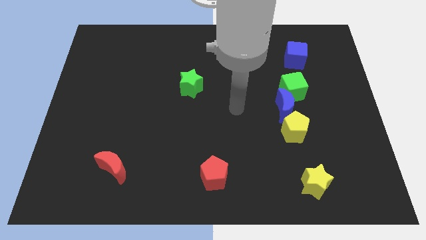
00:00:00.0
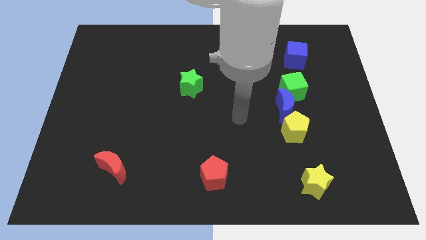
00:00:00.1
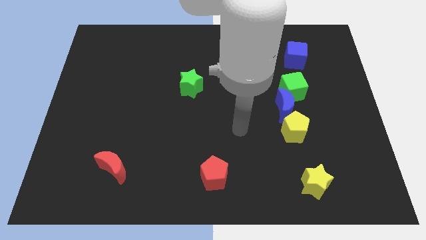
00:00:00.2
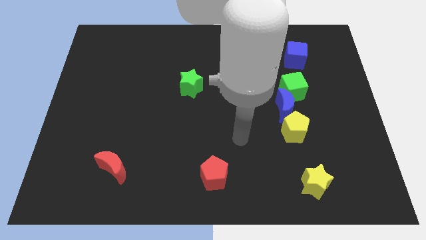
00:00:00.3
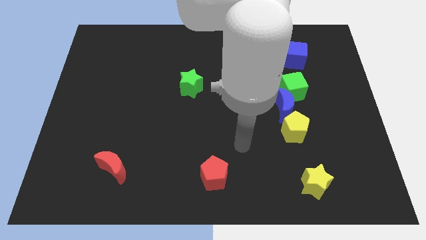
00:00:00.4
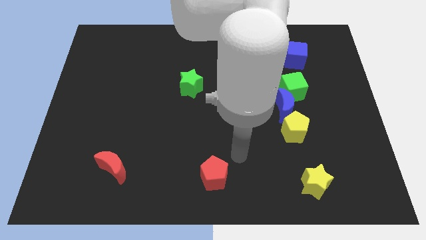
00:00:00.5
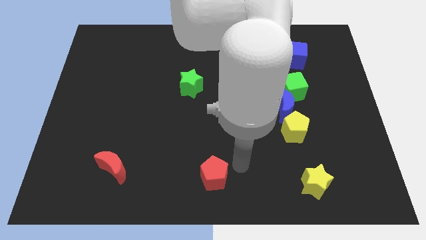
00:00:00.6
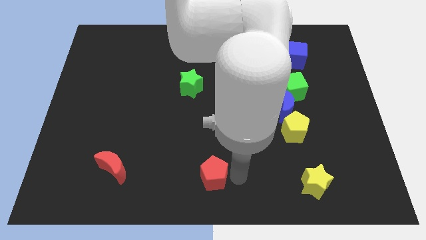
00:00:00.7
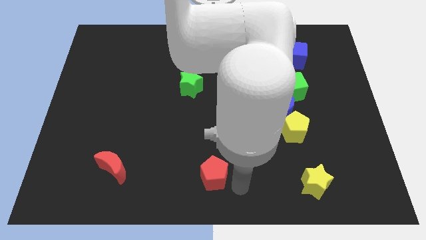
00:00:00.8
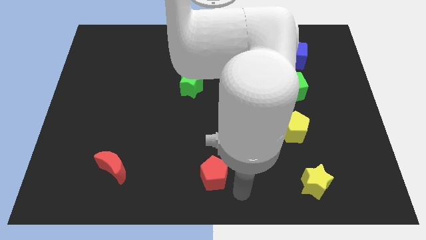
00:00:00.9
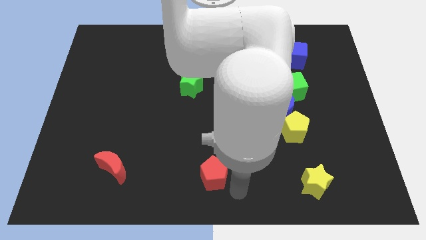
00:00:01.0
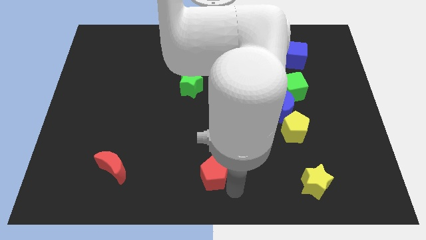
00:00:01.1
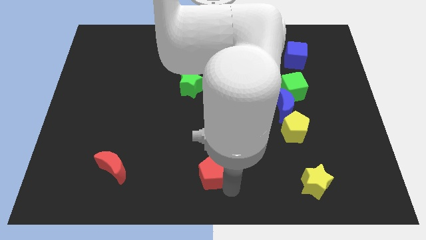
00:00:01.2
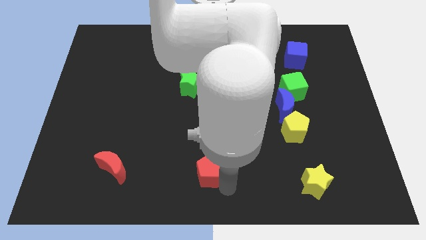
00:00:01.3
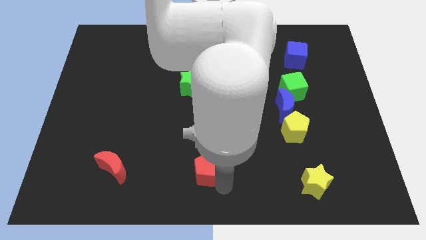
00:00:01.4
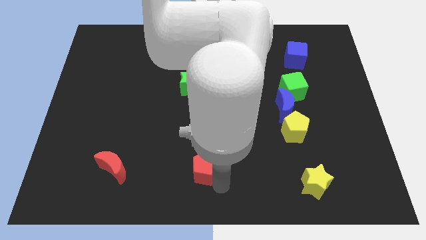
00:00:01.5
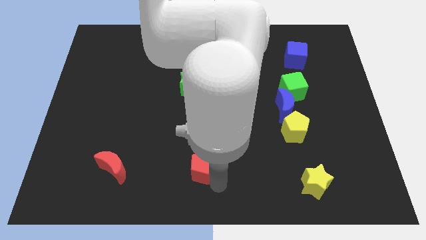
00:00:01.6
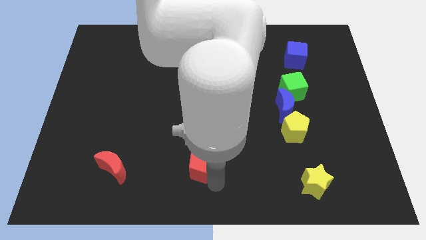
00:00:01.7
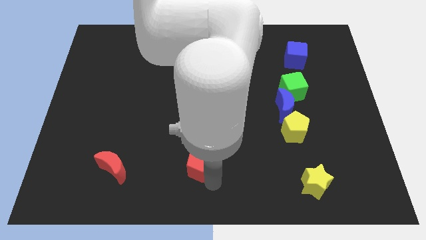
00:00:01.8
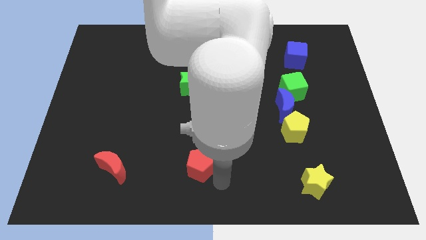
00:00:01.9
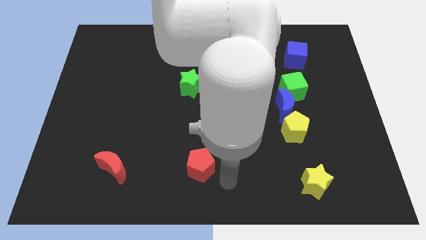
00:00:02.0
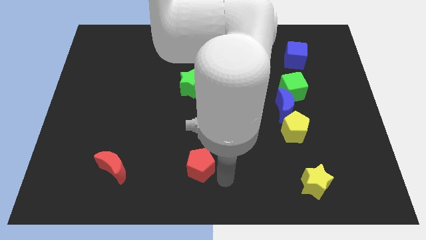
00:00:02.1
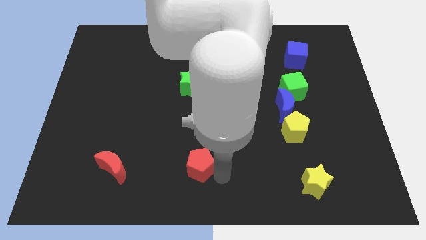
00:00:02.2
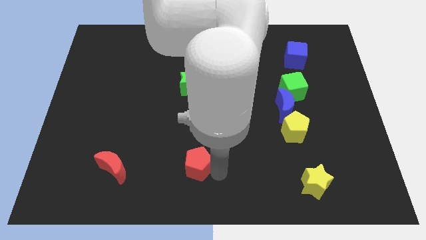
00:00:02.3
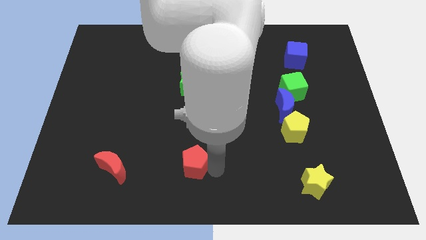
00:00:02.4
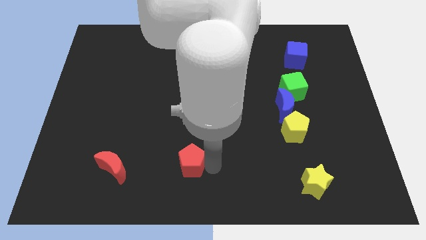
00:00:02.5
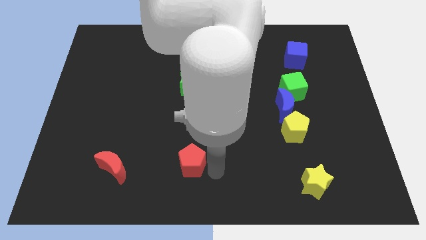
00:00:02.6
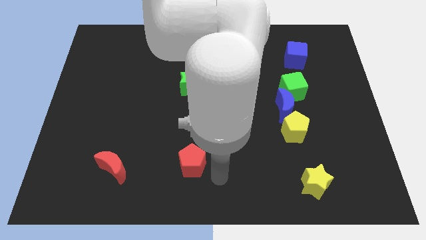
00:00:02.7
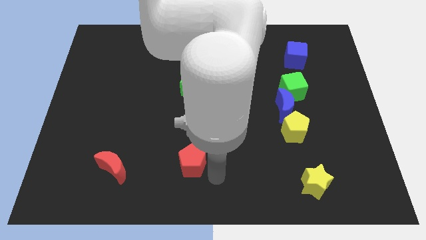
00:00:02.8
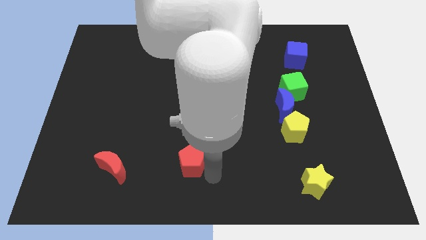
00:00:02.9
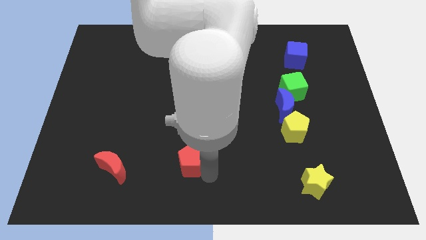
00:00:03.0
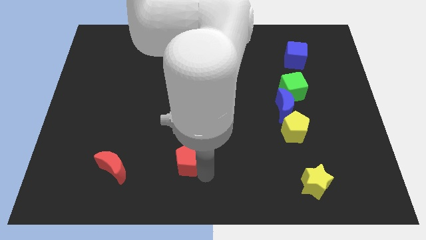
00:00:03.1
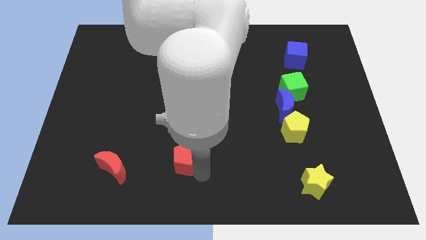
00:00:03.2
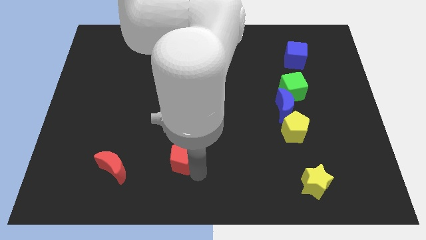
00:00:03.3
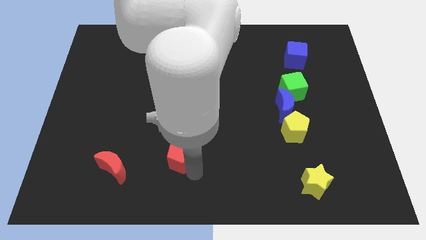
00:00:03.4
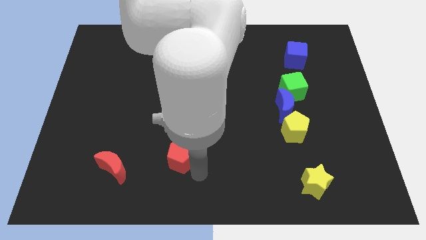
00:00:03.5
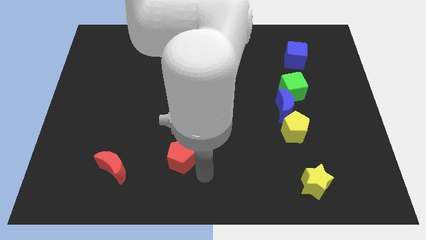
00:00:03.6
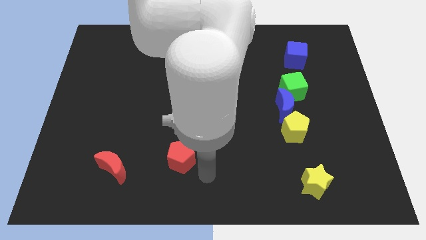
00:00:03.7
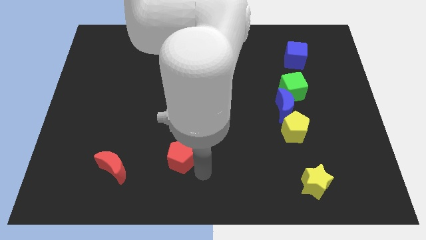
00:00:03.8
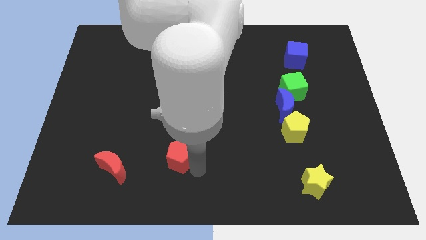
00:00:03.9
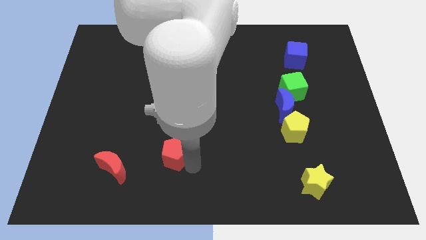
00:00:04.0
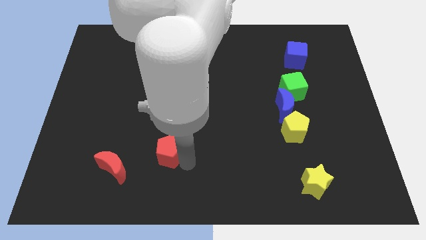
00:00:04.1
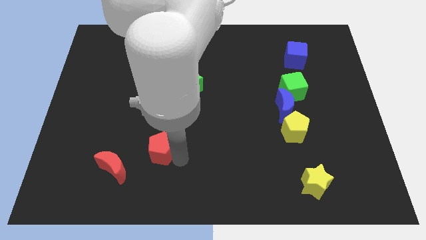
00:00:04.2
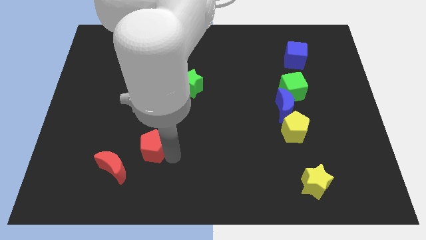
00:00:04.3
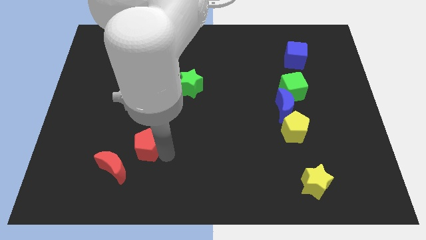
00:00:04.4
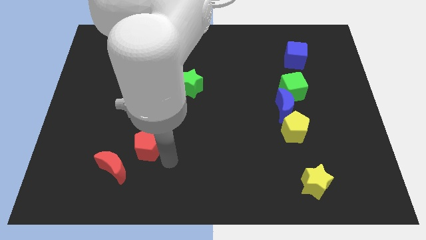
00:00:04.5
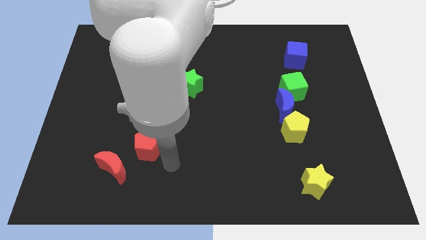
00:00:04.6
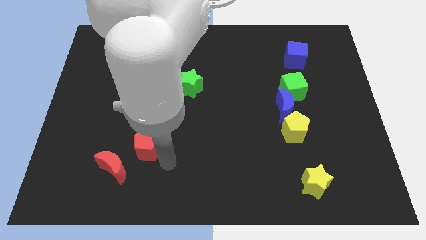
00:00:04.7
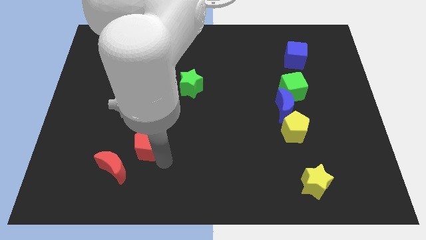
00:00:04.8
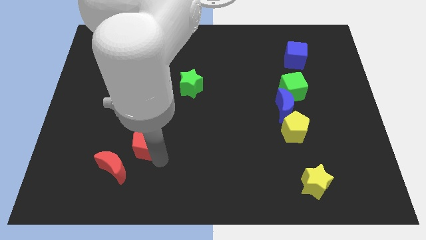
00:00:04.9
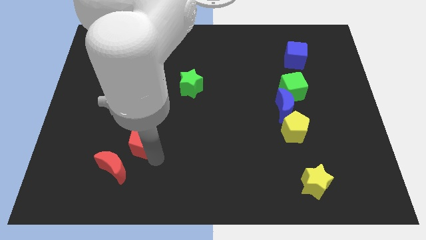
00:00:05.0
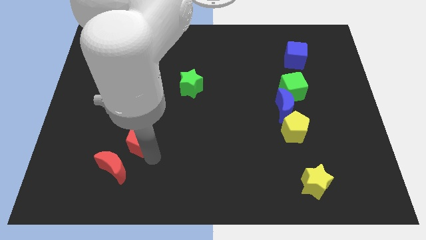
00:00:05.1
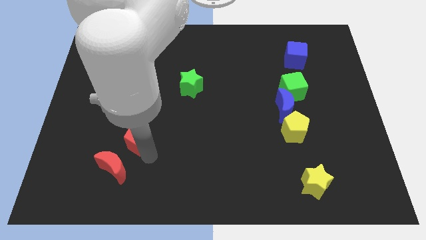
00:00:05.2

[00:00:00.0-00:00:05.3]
put the red pentagon to the top of the red moon

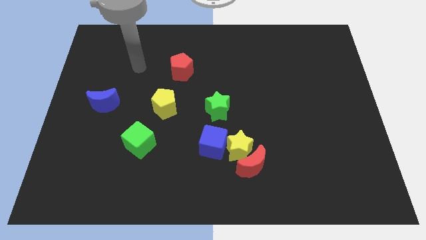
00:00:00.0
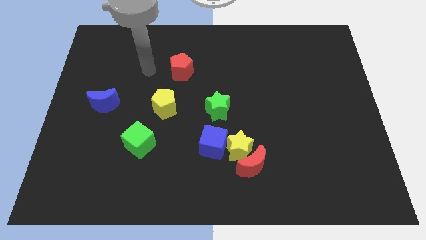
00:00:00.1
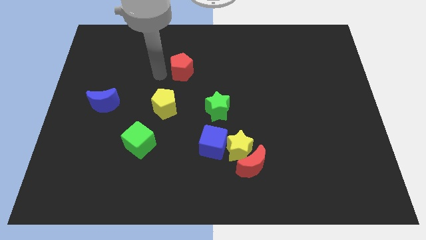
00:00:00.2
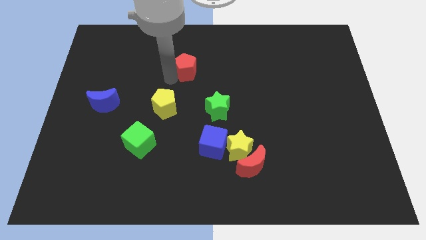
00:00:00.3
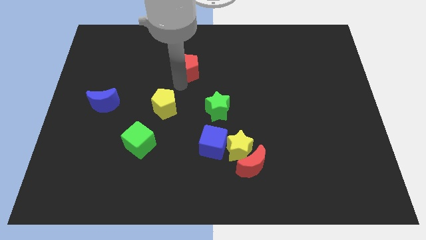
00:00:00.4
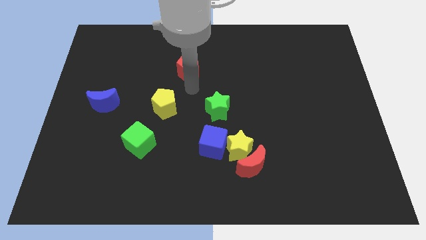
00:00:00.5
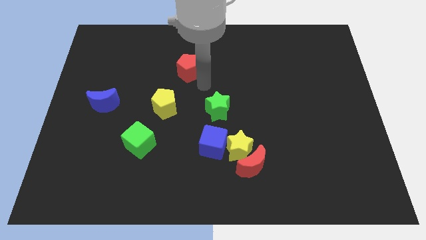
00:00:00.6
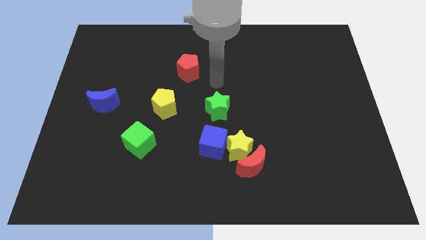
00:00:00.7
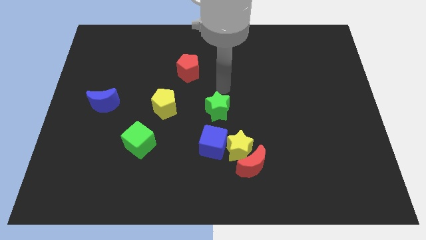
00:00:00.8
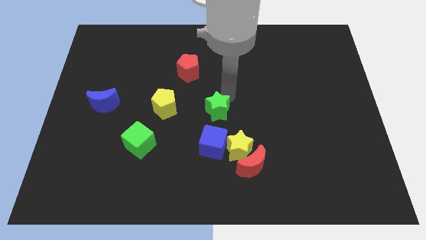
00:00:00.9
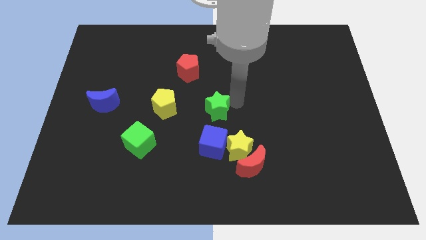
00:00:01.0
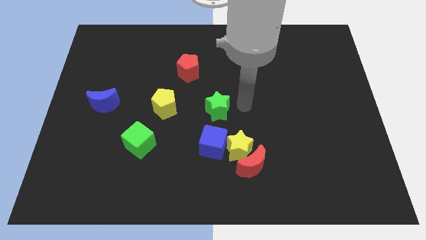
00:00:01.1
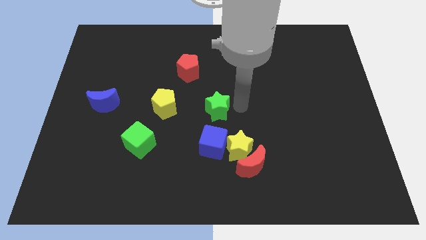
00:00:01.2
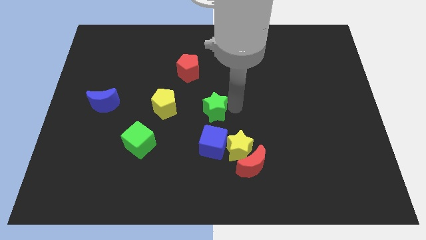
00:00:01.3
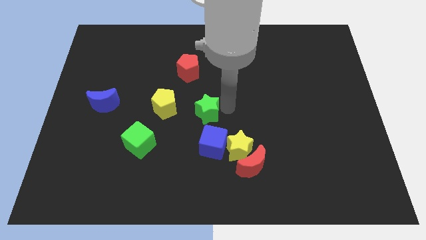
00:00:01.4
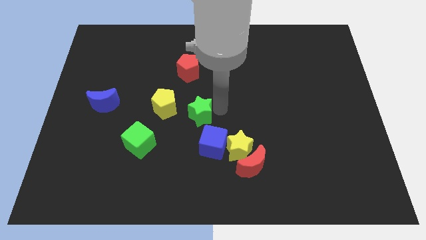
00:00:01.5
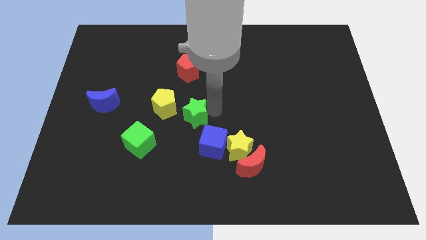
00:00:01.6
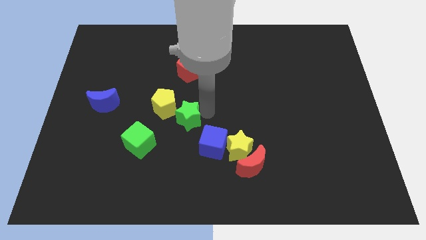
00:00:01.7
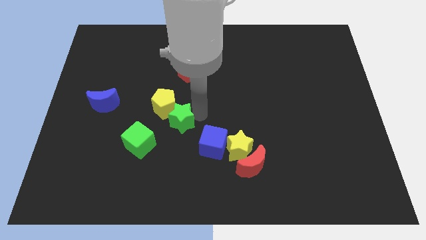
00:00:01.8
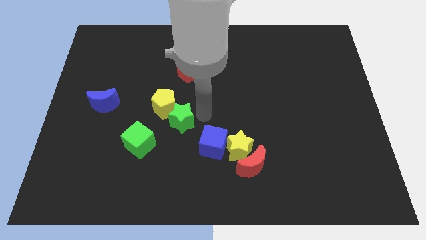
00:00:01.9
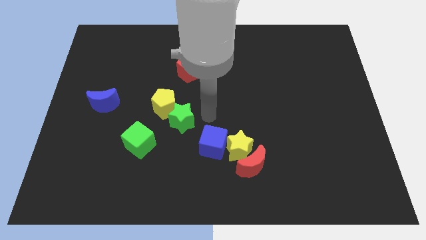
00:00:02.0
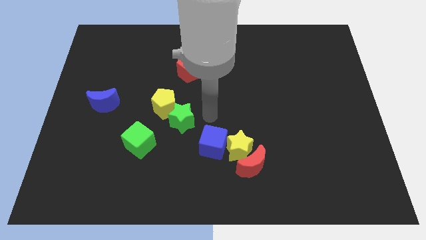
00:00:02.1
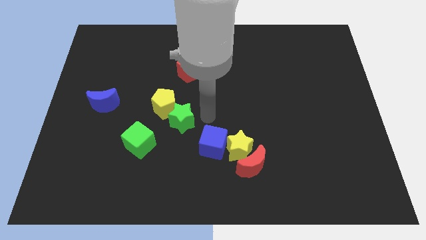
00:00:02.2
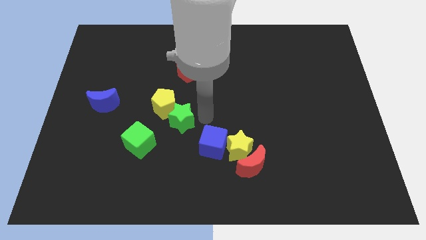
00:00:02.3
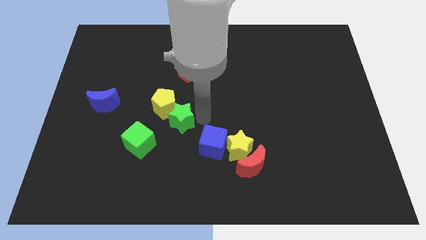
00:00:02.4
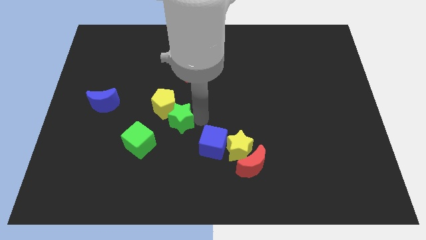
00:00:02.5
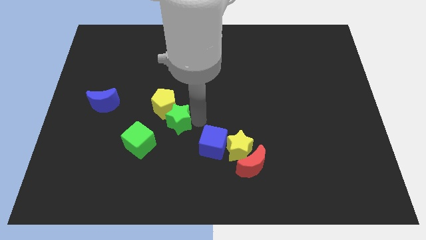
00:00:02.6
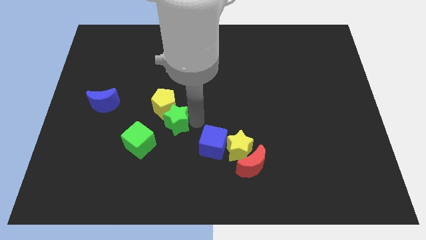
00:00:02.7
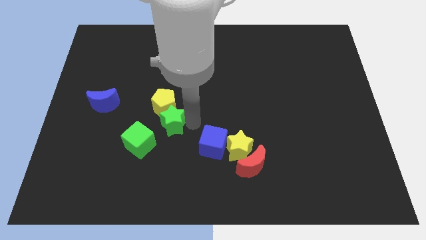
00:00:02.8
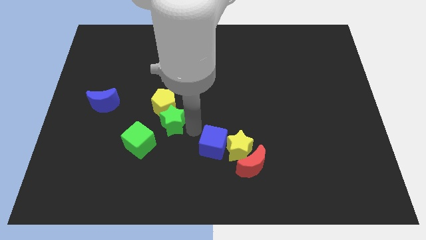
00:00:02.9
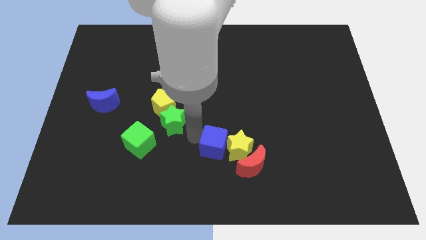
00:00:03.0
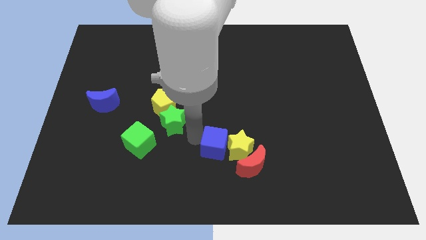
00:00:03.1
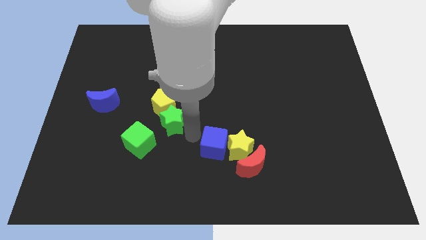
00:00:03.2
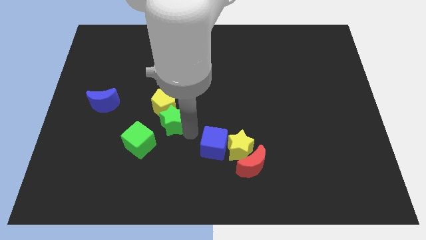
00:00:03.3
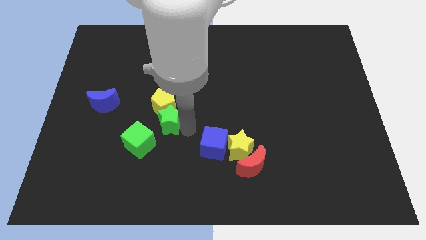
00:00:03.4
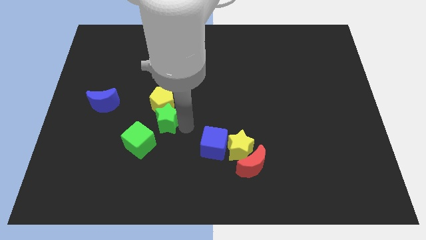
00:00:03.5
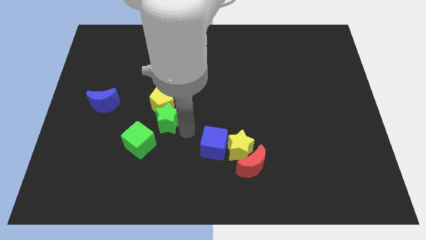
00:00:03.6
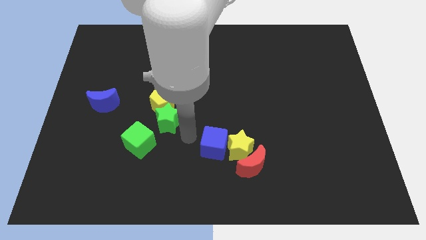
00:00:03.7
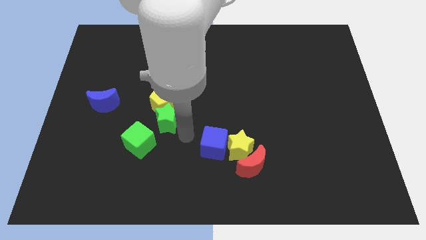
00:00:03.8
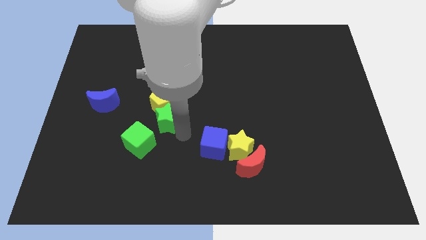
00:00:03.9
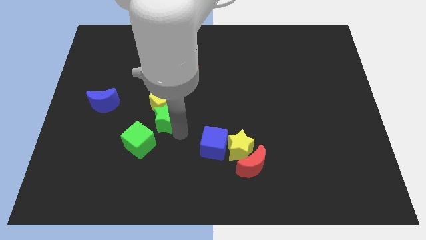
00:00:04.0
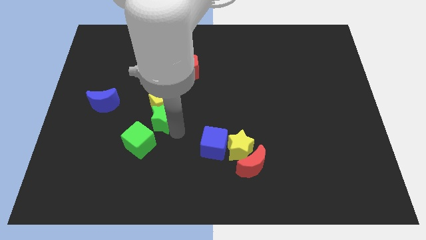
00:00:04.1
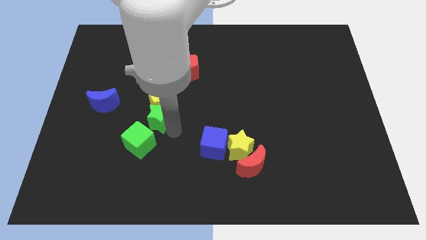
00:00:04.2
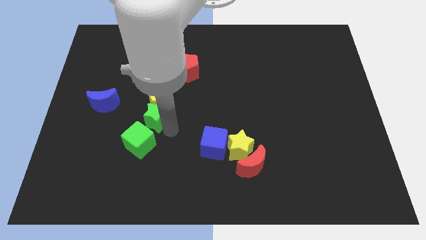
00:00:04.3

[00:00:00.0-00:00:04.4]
move the green star to the right side of the blue moon
